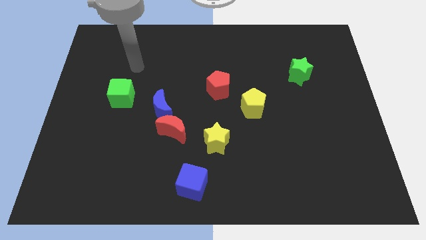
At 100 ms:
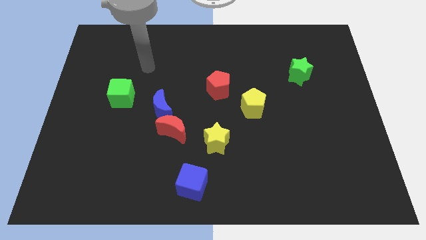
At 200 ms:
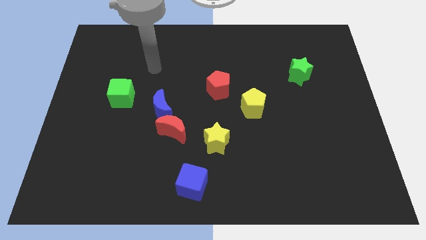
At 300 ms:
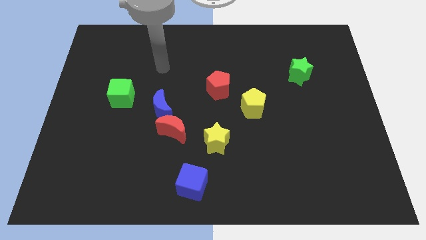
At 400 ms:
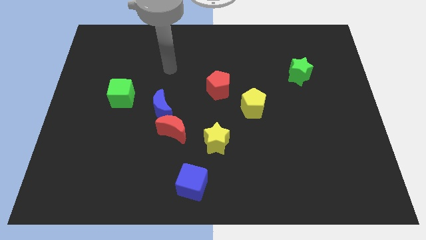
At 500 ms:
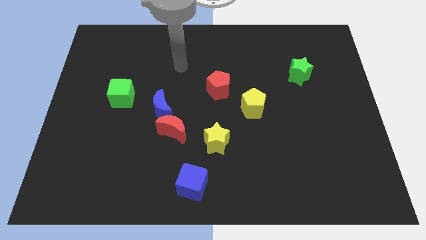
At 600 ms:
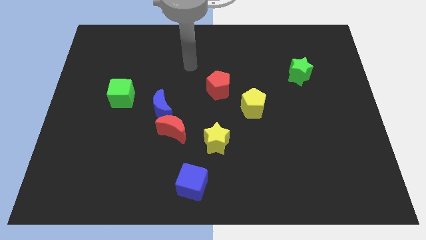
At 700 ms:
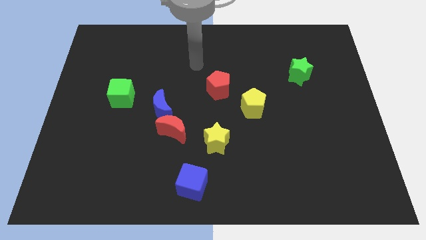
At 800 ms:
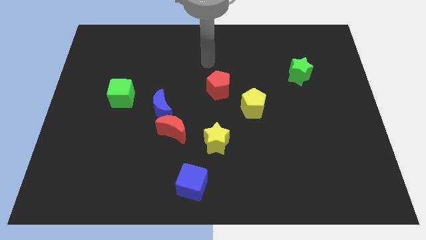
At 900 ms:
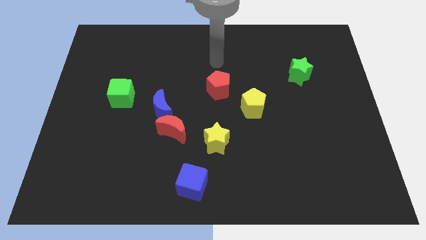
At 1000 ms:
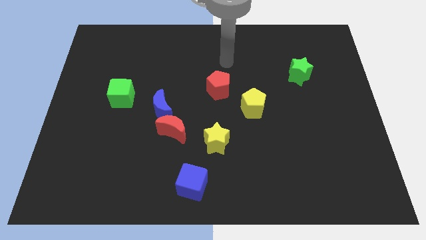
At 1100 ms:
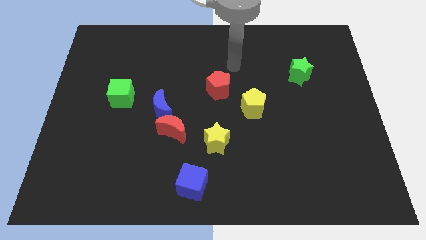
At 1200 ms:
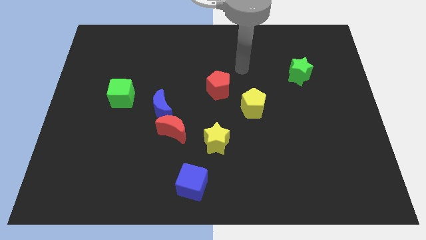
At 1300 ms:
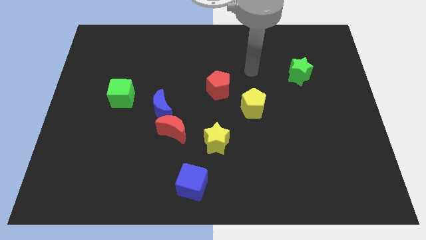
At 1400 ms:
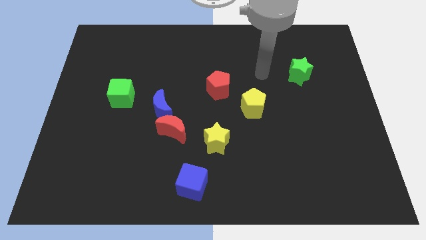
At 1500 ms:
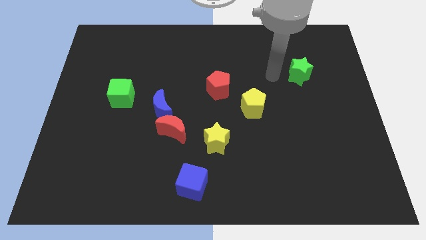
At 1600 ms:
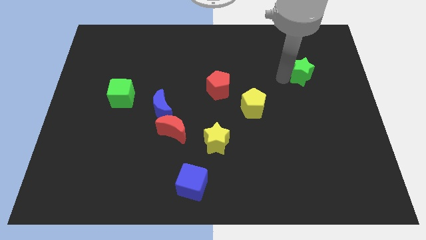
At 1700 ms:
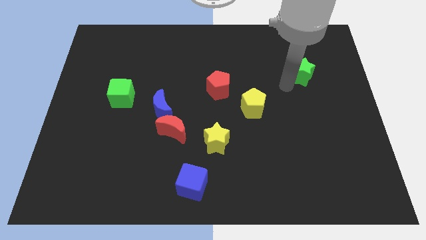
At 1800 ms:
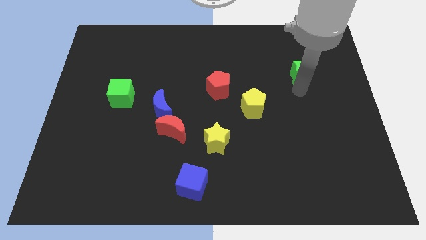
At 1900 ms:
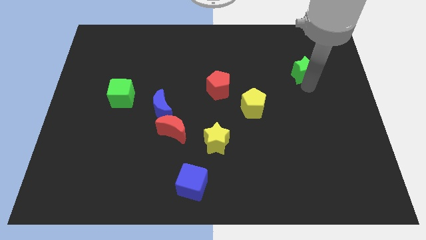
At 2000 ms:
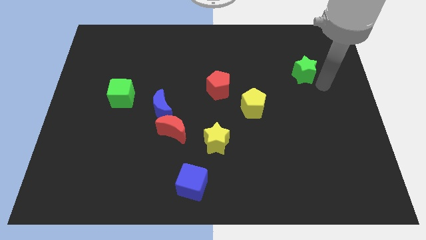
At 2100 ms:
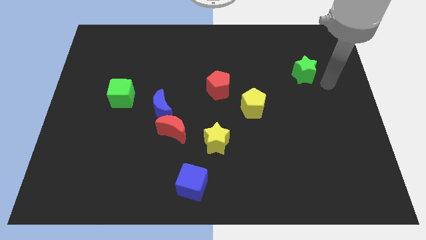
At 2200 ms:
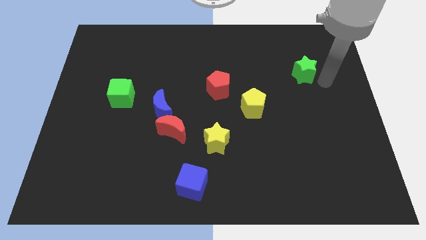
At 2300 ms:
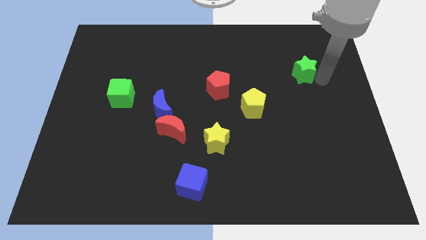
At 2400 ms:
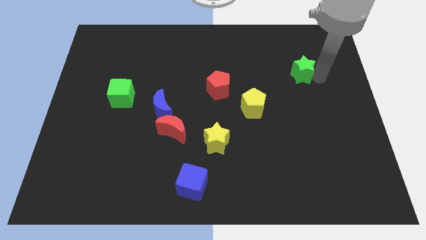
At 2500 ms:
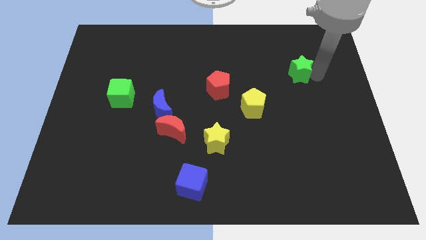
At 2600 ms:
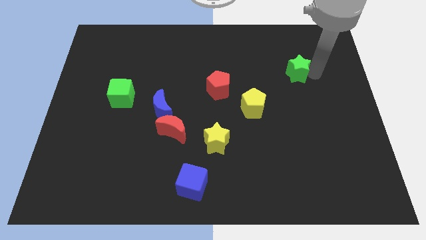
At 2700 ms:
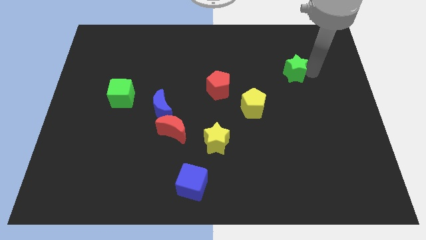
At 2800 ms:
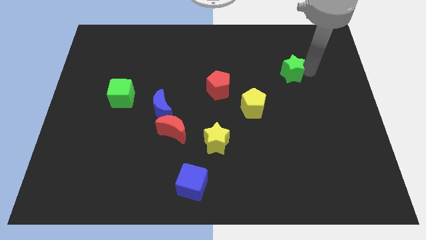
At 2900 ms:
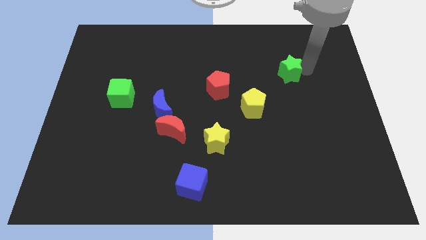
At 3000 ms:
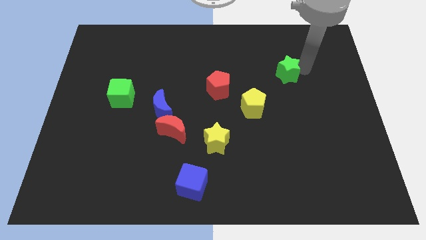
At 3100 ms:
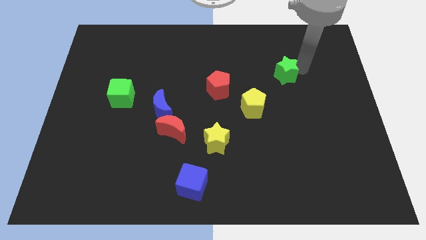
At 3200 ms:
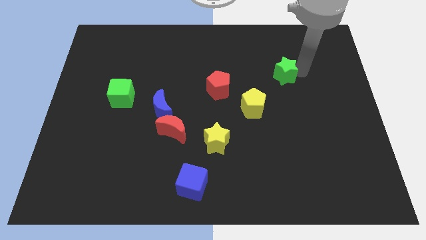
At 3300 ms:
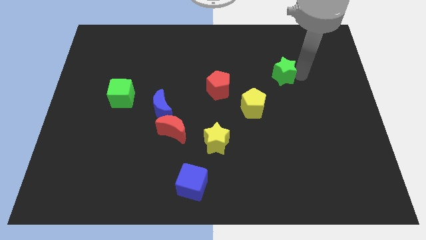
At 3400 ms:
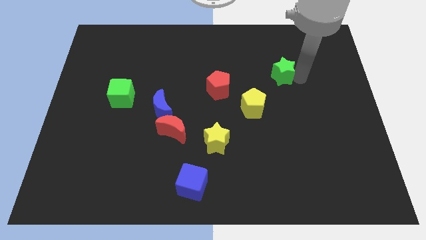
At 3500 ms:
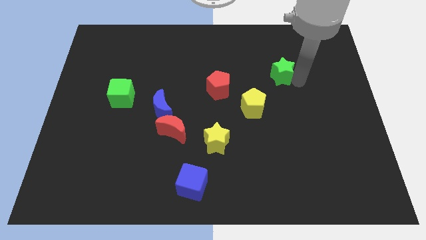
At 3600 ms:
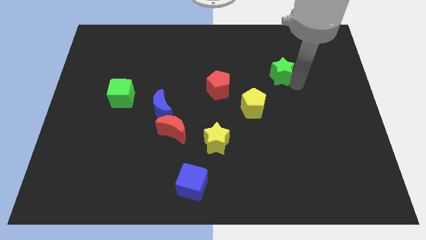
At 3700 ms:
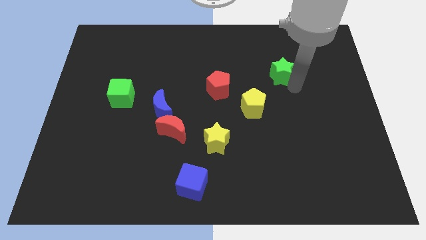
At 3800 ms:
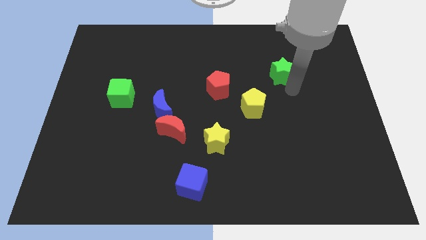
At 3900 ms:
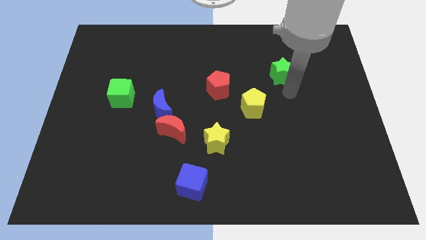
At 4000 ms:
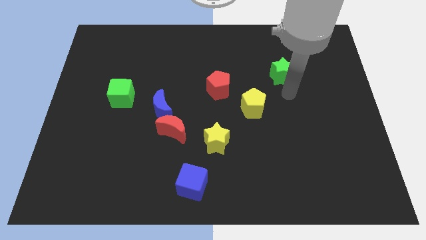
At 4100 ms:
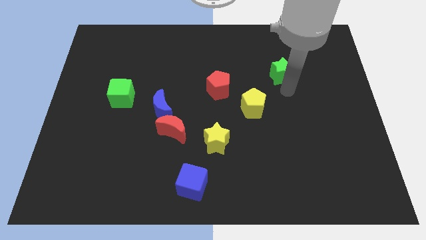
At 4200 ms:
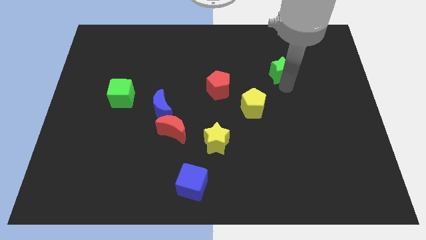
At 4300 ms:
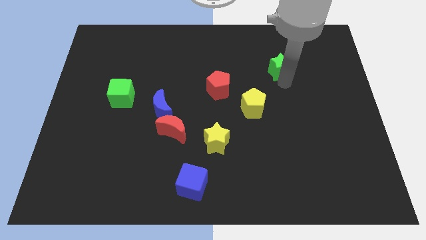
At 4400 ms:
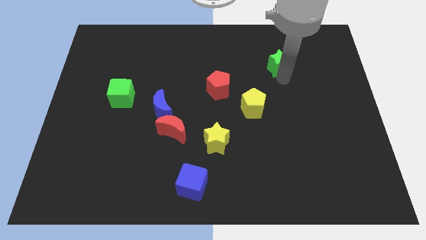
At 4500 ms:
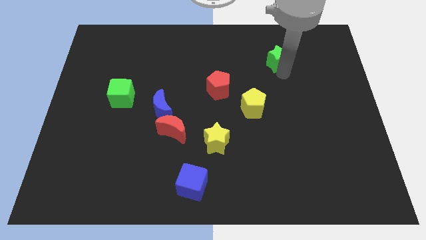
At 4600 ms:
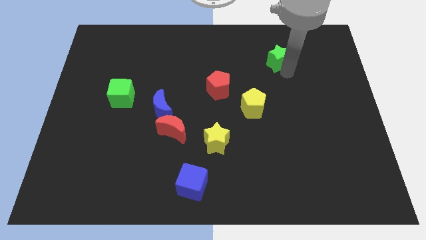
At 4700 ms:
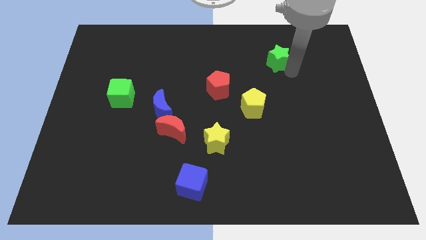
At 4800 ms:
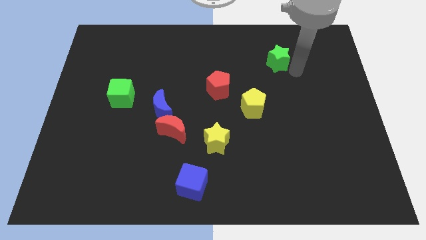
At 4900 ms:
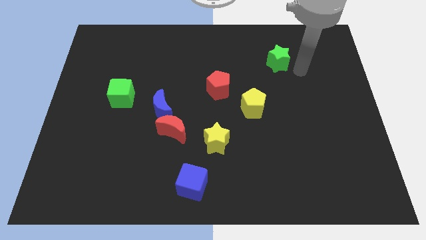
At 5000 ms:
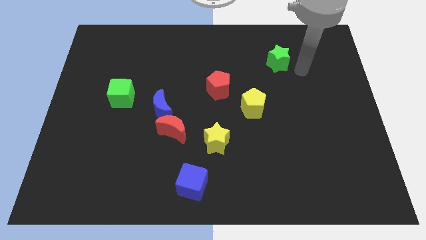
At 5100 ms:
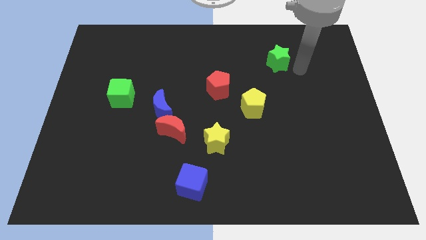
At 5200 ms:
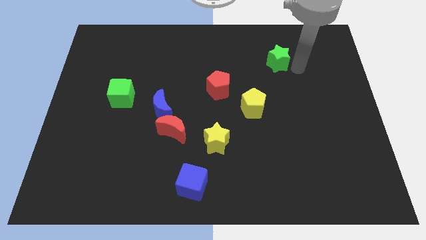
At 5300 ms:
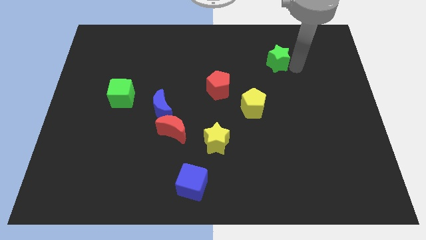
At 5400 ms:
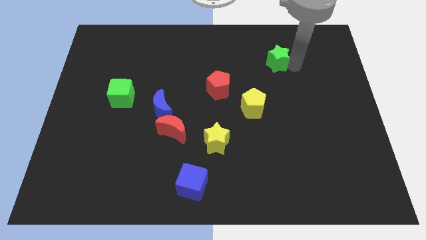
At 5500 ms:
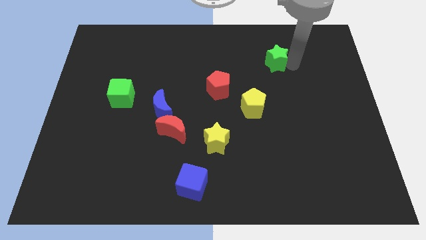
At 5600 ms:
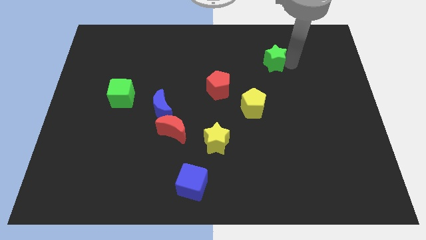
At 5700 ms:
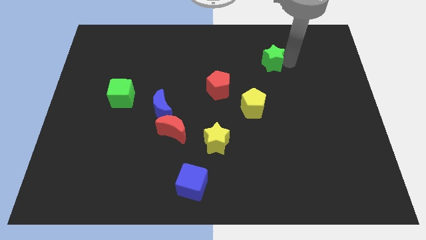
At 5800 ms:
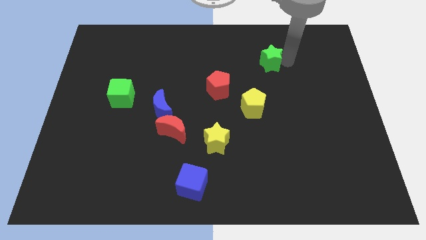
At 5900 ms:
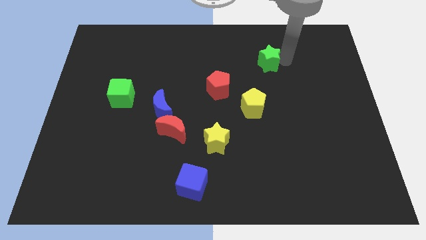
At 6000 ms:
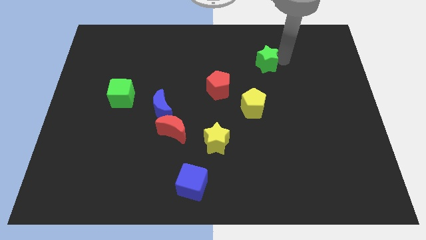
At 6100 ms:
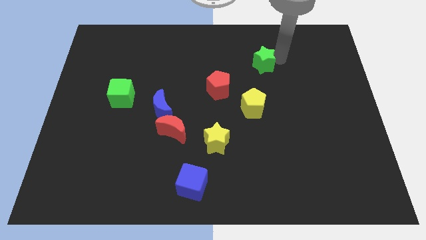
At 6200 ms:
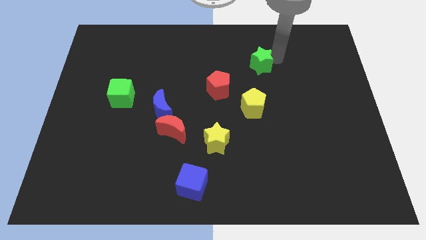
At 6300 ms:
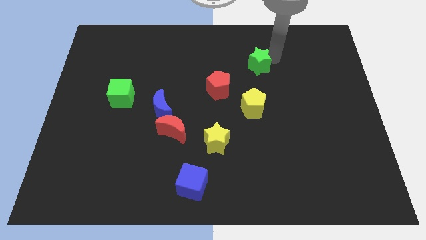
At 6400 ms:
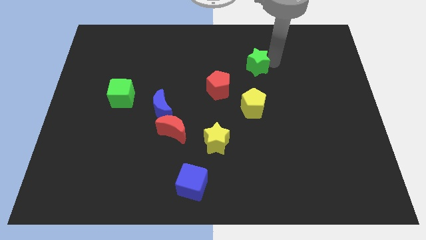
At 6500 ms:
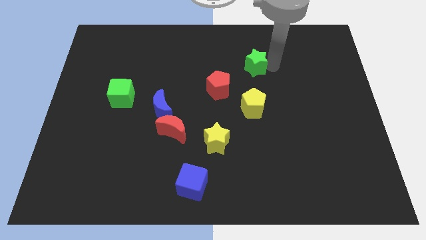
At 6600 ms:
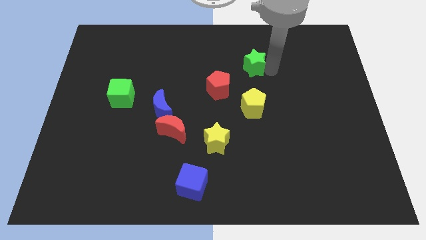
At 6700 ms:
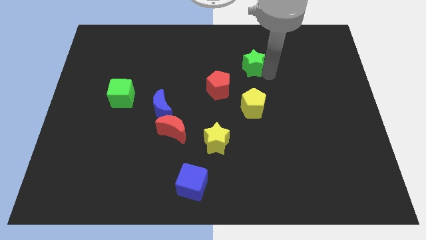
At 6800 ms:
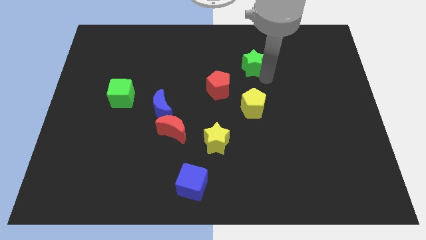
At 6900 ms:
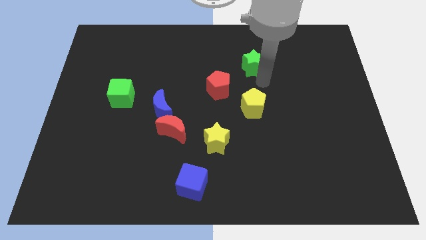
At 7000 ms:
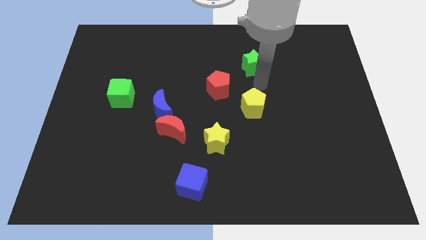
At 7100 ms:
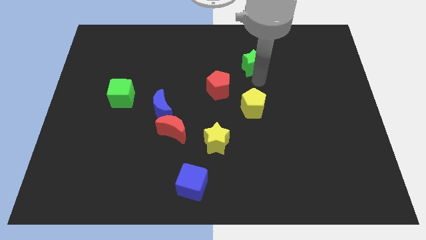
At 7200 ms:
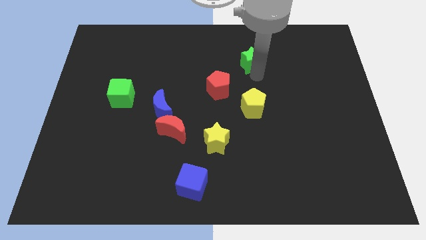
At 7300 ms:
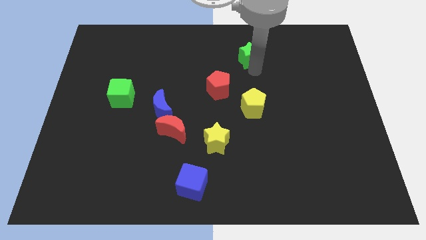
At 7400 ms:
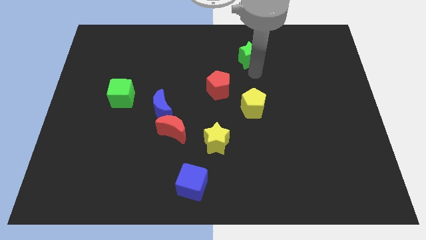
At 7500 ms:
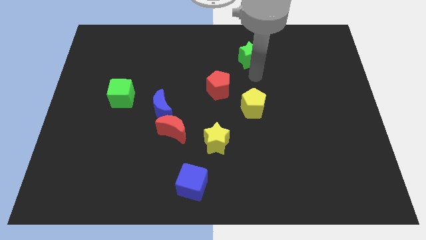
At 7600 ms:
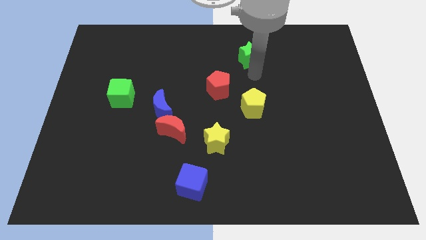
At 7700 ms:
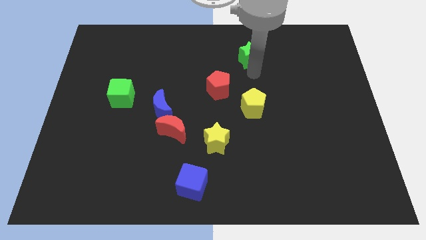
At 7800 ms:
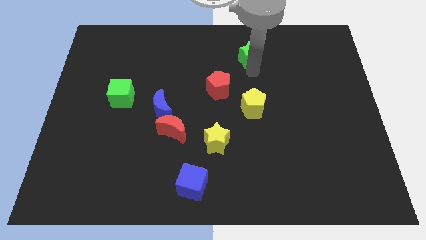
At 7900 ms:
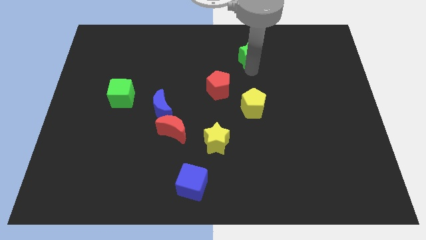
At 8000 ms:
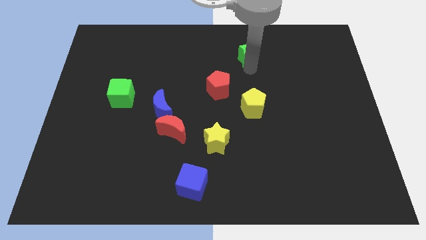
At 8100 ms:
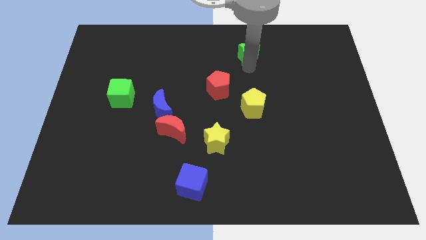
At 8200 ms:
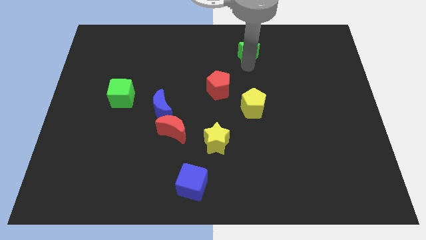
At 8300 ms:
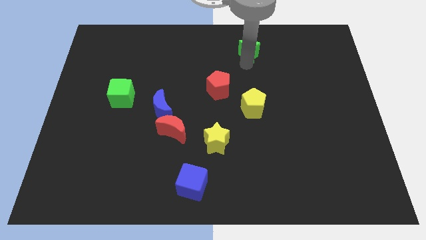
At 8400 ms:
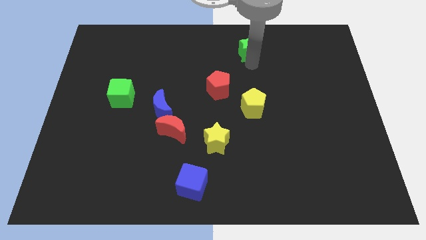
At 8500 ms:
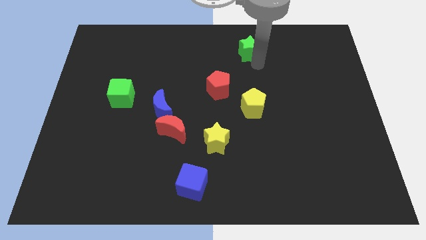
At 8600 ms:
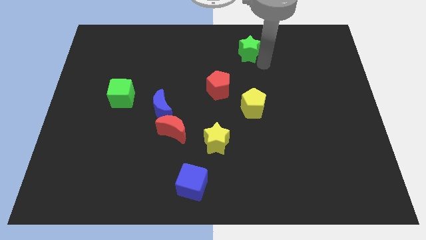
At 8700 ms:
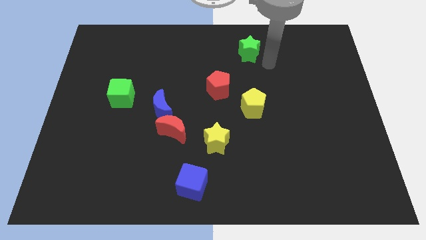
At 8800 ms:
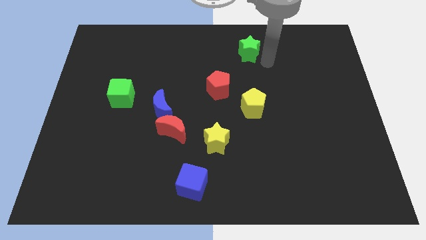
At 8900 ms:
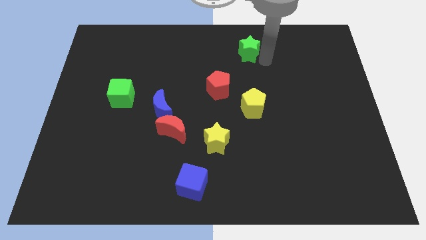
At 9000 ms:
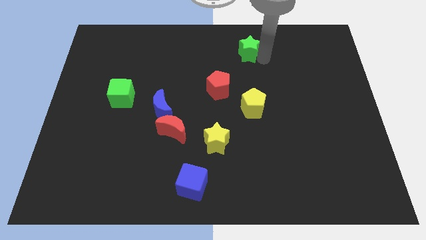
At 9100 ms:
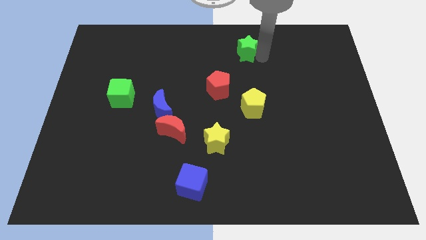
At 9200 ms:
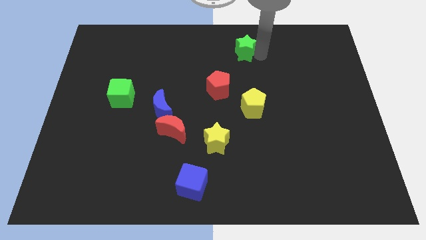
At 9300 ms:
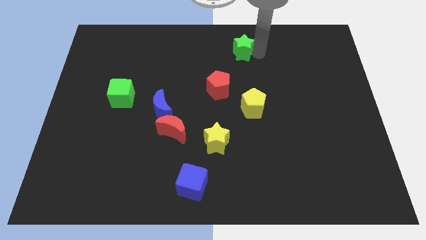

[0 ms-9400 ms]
move the green star to the top side
